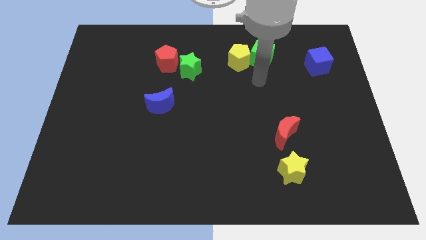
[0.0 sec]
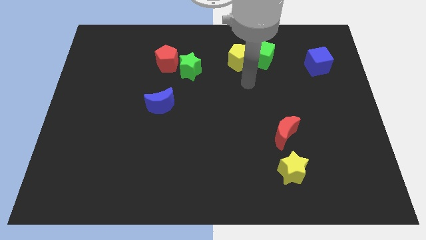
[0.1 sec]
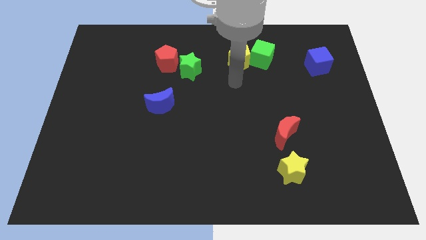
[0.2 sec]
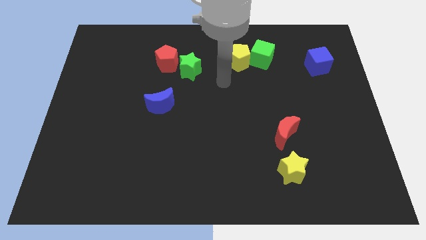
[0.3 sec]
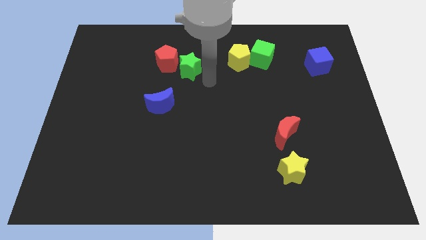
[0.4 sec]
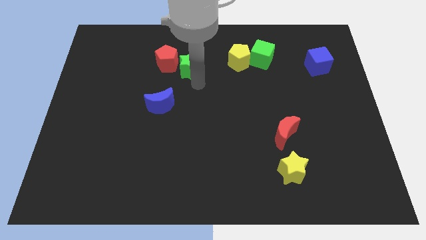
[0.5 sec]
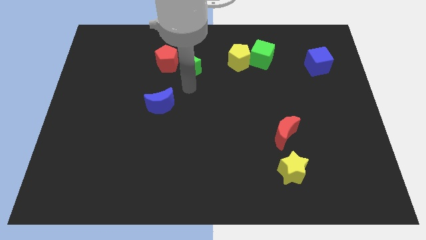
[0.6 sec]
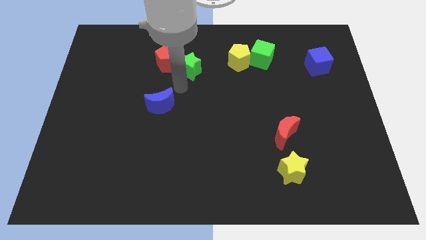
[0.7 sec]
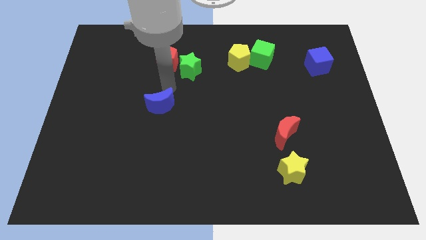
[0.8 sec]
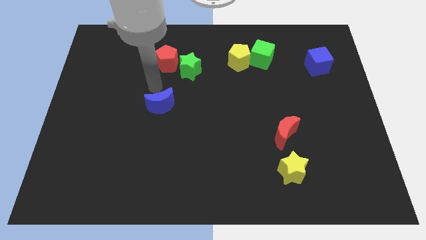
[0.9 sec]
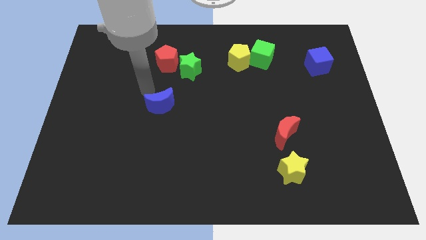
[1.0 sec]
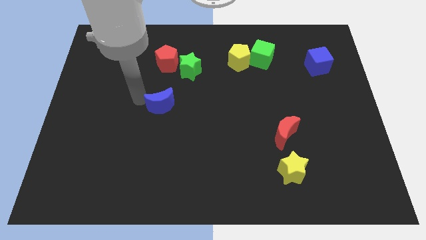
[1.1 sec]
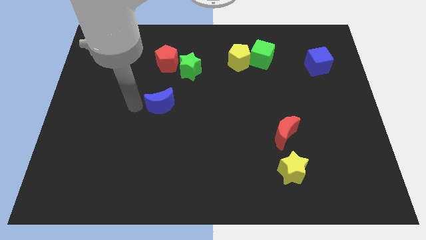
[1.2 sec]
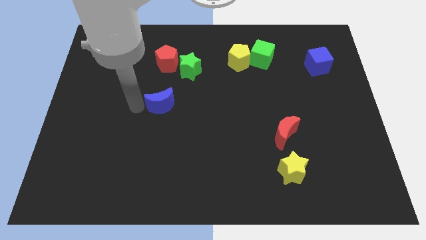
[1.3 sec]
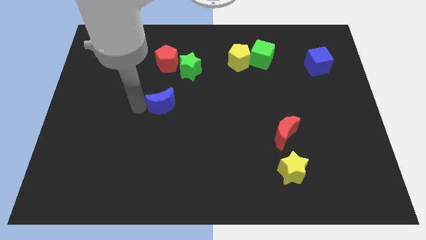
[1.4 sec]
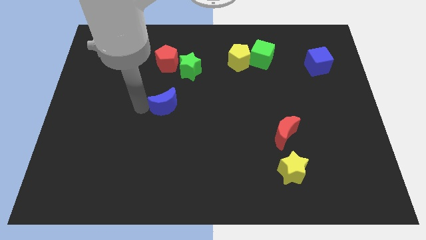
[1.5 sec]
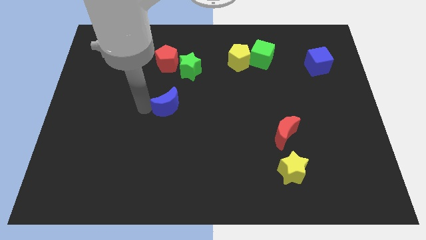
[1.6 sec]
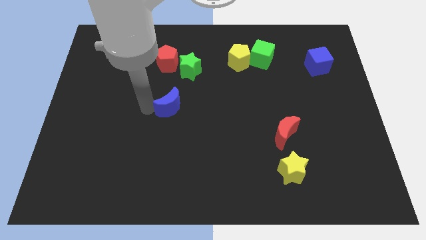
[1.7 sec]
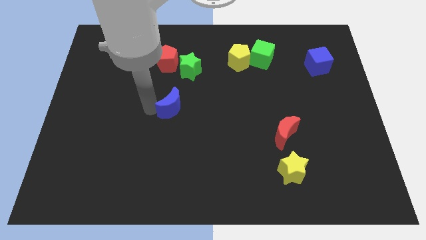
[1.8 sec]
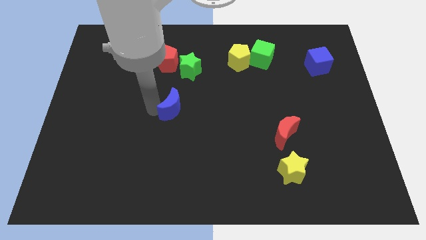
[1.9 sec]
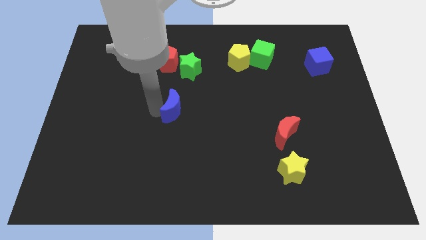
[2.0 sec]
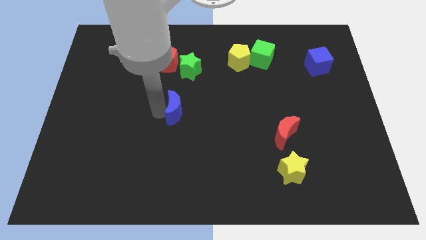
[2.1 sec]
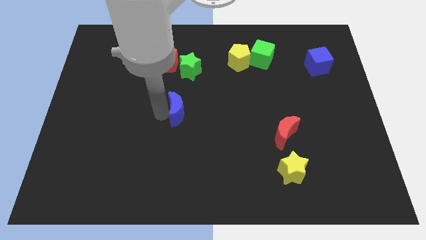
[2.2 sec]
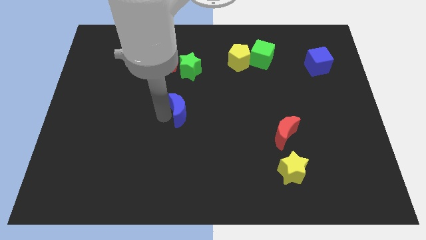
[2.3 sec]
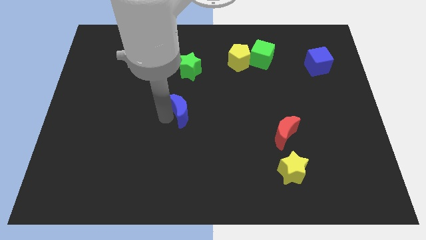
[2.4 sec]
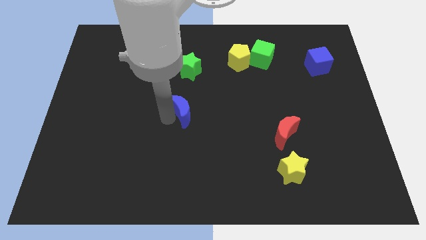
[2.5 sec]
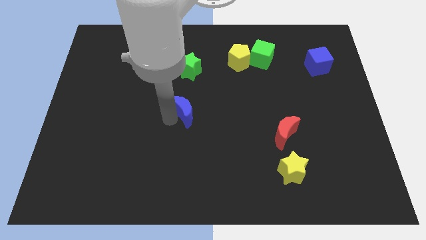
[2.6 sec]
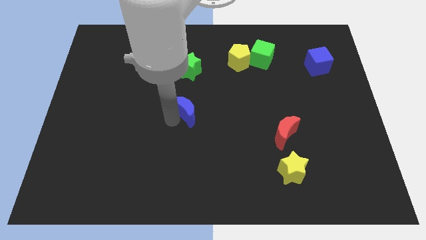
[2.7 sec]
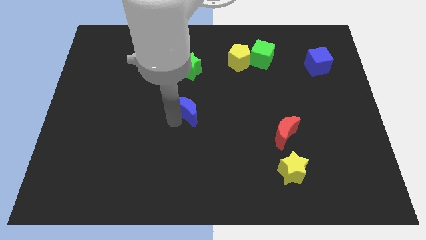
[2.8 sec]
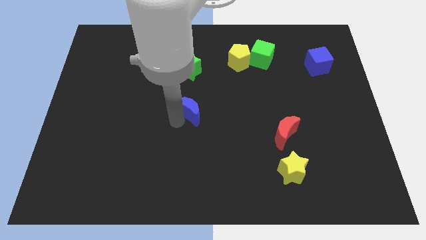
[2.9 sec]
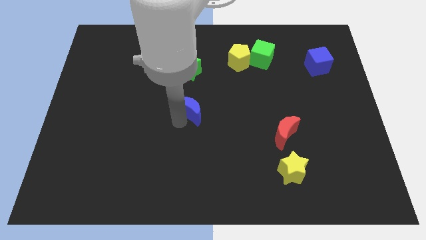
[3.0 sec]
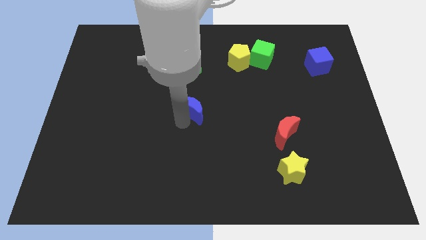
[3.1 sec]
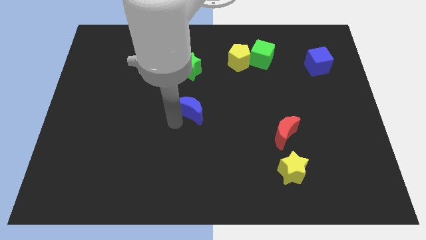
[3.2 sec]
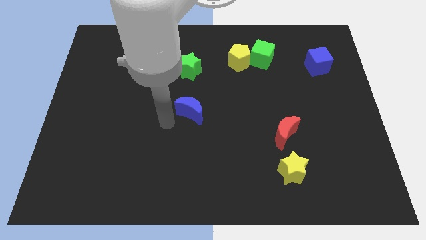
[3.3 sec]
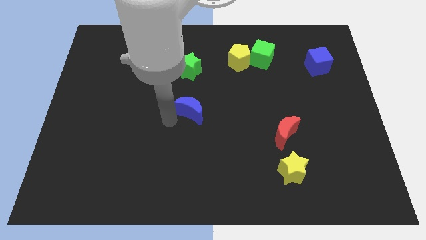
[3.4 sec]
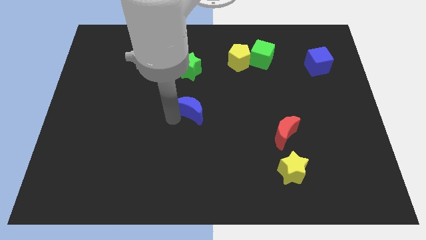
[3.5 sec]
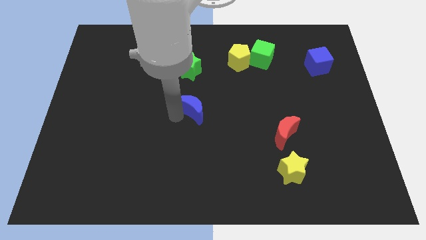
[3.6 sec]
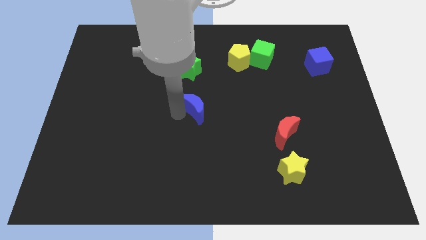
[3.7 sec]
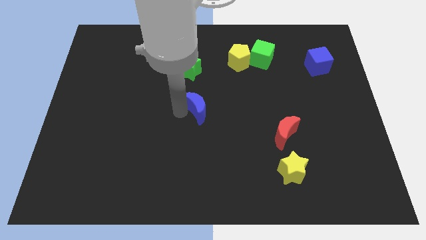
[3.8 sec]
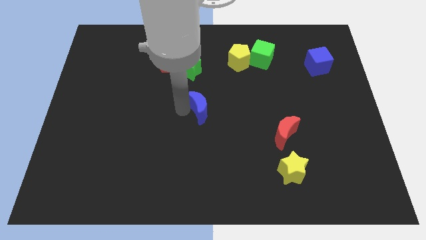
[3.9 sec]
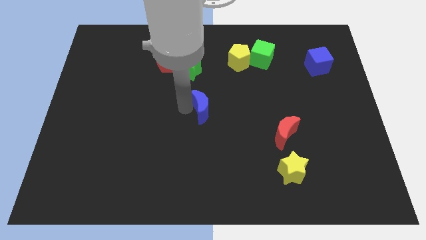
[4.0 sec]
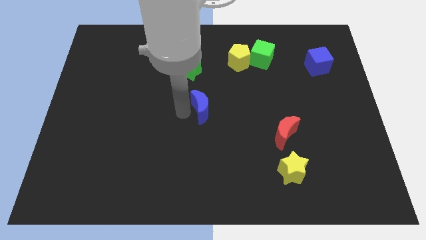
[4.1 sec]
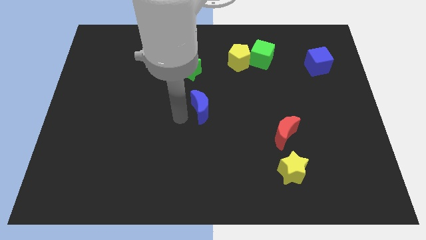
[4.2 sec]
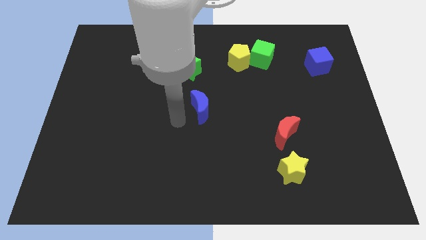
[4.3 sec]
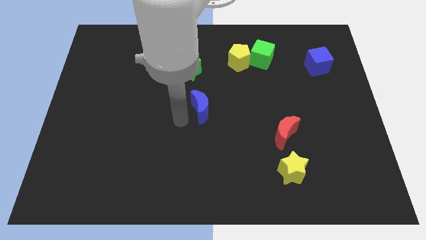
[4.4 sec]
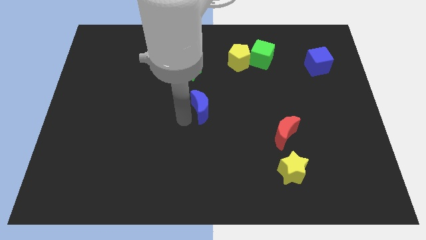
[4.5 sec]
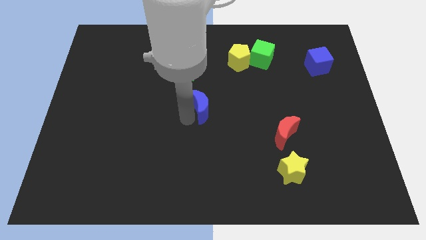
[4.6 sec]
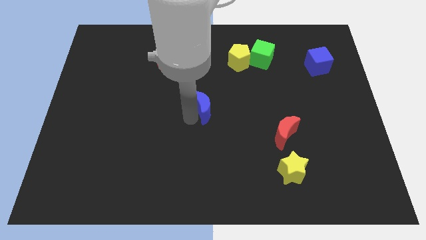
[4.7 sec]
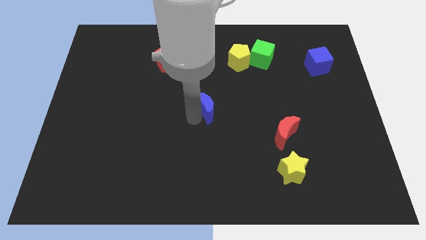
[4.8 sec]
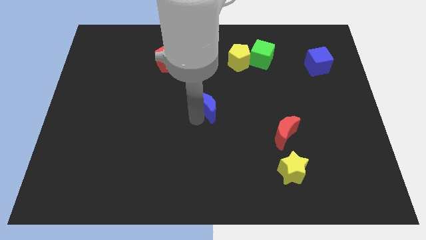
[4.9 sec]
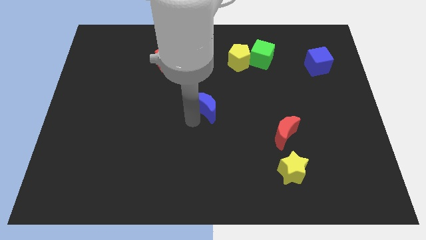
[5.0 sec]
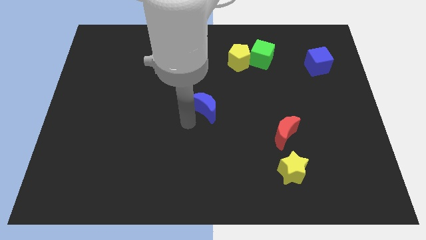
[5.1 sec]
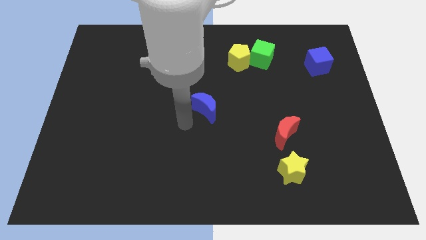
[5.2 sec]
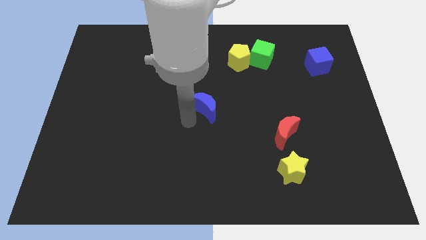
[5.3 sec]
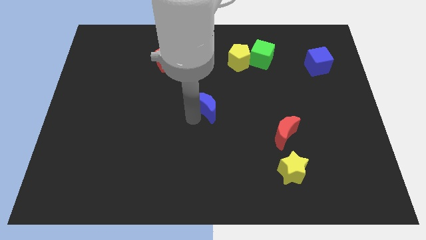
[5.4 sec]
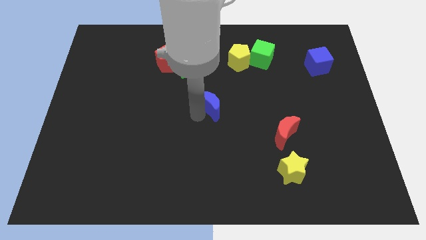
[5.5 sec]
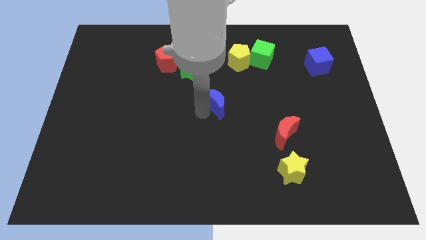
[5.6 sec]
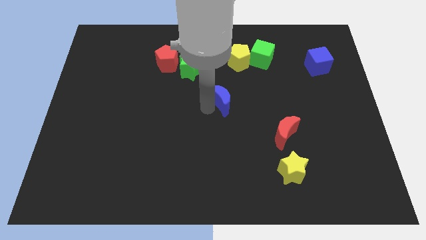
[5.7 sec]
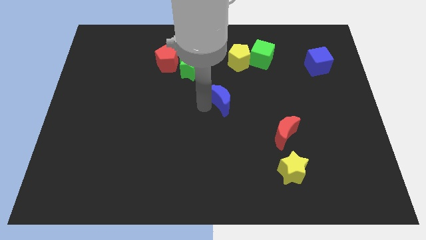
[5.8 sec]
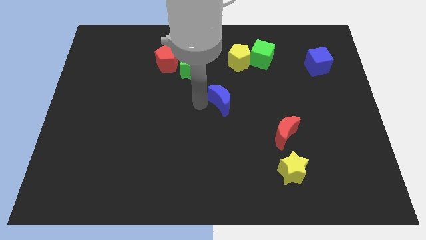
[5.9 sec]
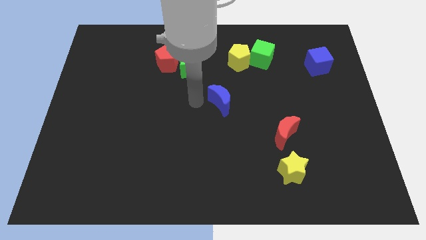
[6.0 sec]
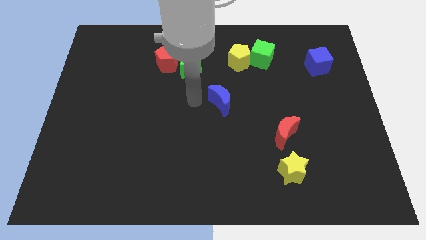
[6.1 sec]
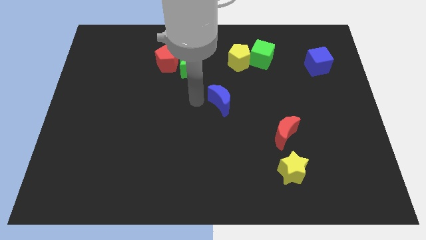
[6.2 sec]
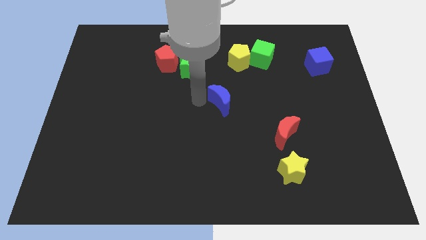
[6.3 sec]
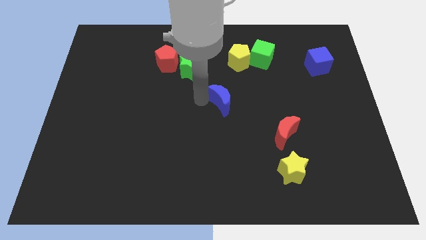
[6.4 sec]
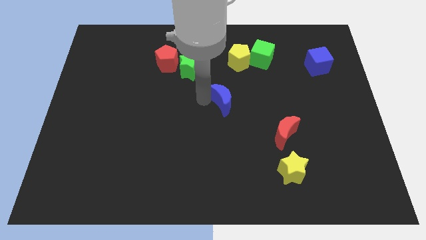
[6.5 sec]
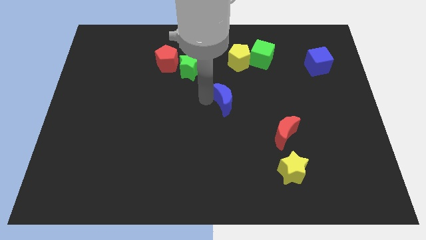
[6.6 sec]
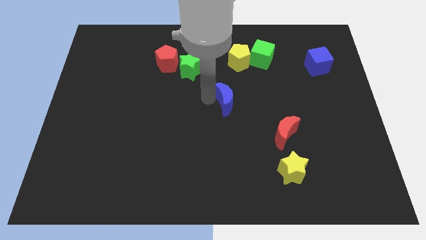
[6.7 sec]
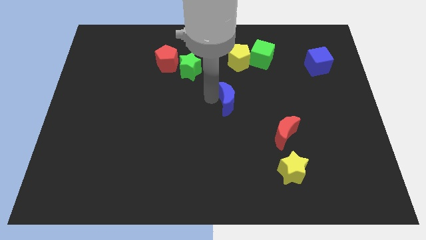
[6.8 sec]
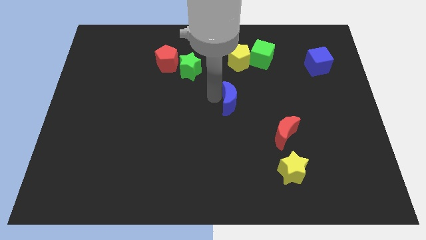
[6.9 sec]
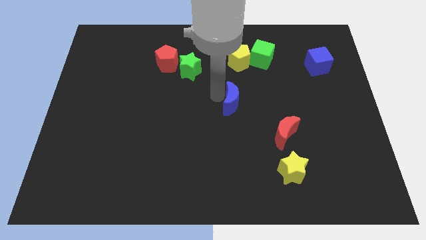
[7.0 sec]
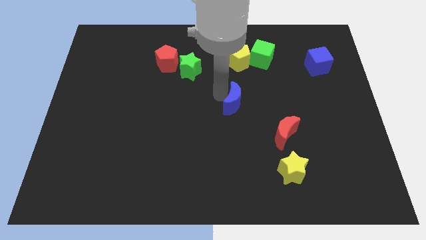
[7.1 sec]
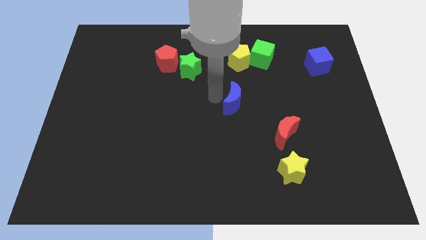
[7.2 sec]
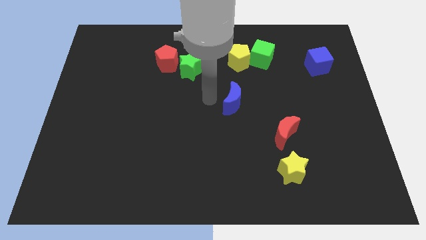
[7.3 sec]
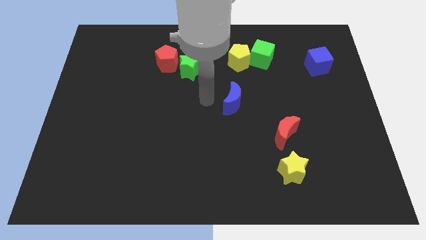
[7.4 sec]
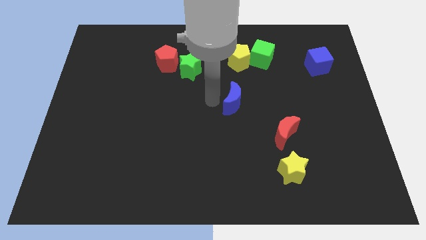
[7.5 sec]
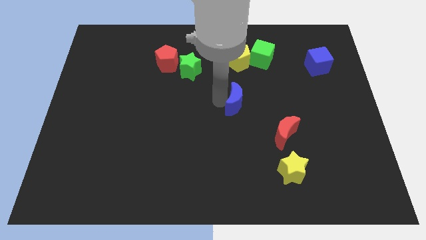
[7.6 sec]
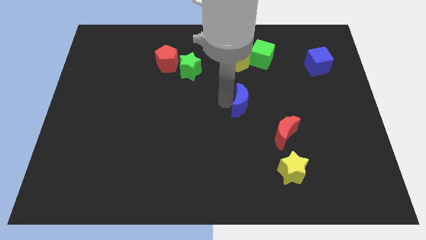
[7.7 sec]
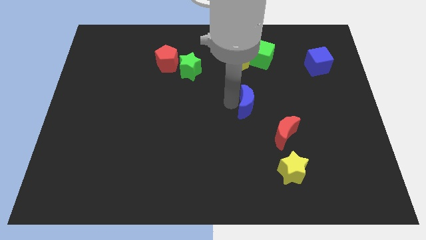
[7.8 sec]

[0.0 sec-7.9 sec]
slide the blue moon right
